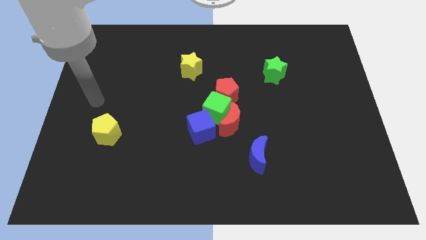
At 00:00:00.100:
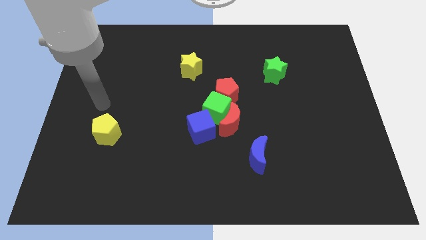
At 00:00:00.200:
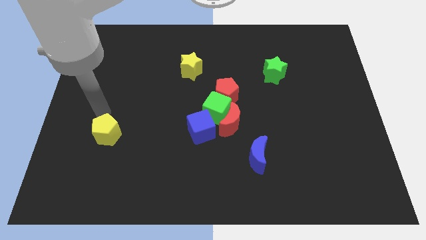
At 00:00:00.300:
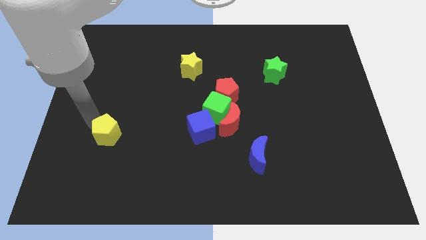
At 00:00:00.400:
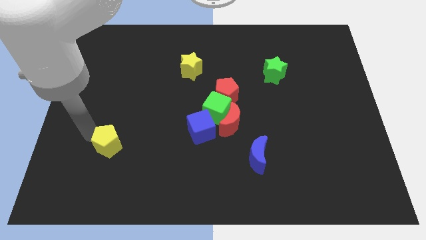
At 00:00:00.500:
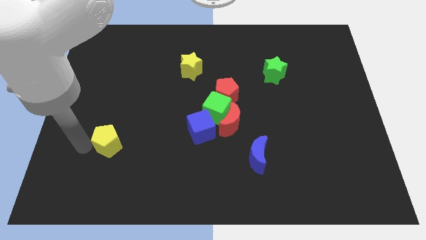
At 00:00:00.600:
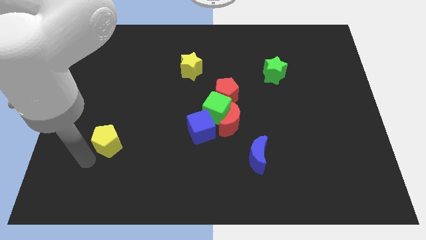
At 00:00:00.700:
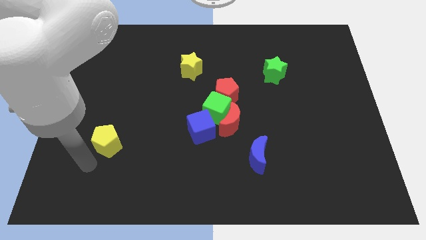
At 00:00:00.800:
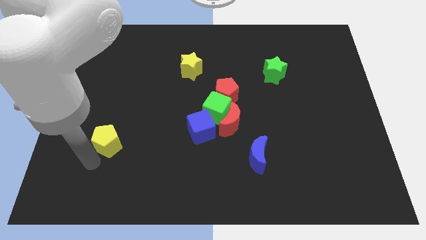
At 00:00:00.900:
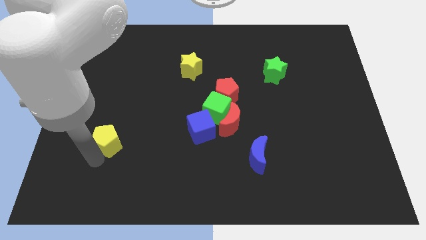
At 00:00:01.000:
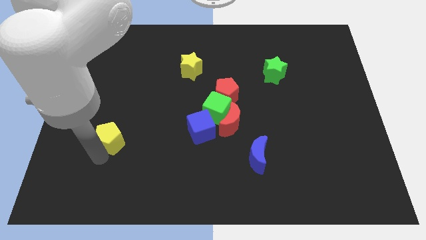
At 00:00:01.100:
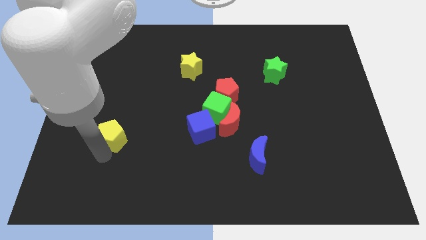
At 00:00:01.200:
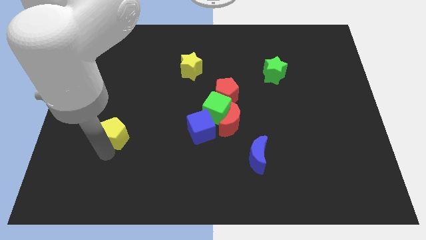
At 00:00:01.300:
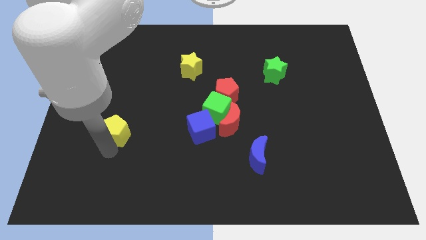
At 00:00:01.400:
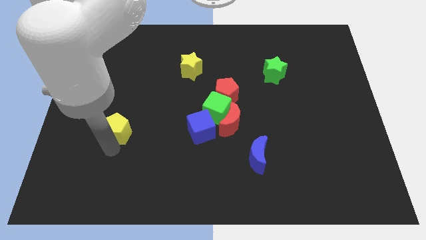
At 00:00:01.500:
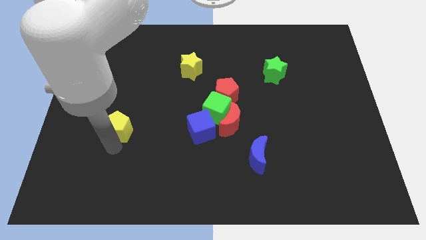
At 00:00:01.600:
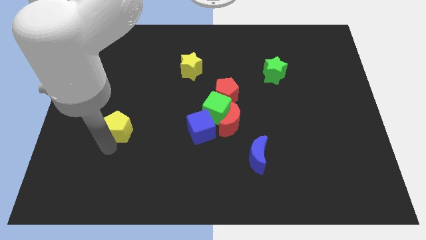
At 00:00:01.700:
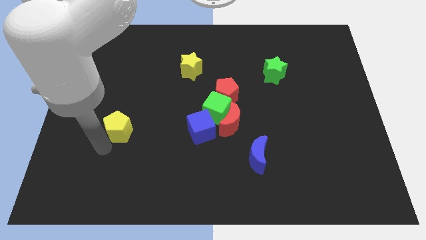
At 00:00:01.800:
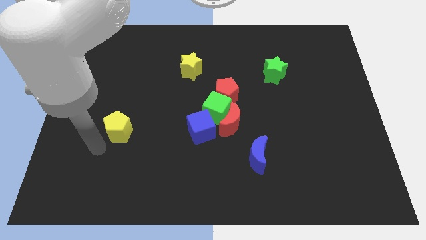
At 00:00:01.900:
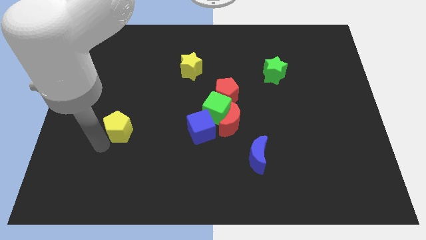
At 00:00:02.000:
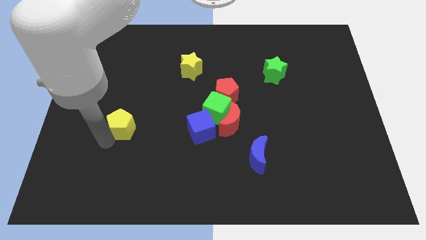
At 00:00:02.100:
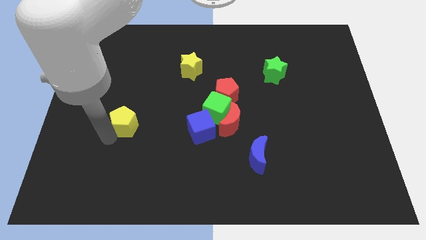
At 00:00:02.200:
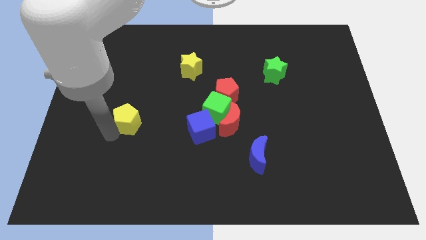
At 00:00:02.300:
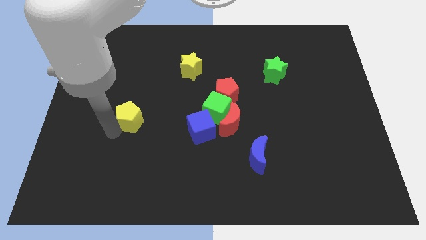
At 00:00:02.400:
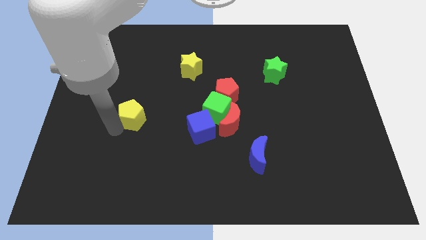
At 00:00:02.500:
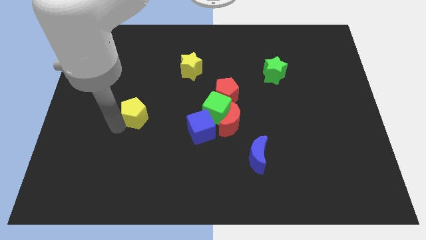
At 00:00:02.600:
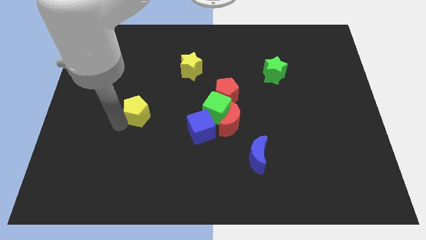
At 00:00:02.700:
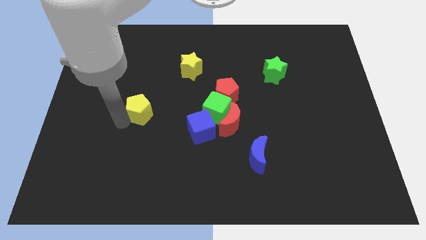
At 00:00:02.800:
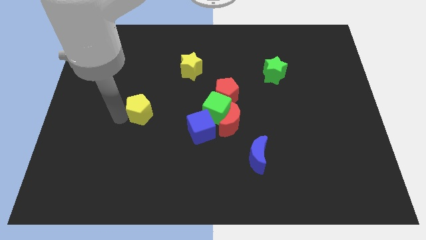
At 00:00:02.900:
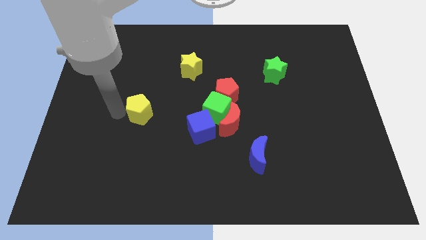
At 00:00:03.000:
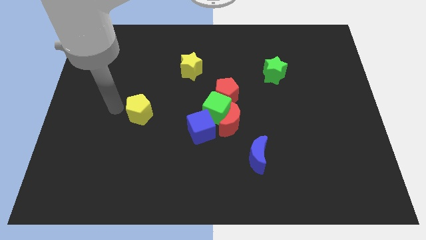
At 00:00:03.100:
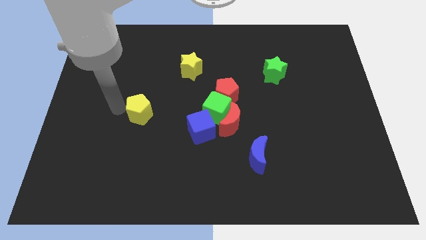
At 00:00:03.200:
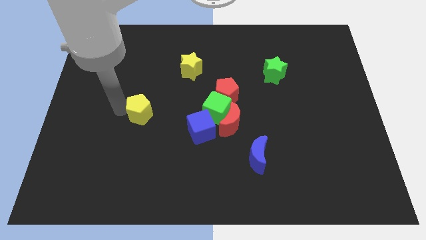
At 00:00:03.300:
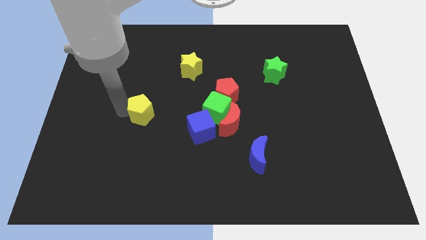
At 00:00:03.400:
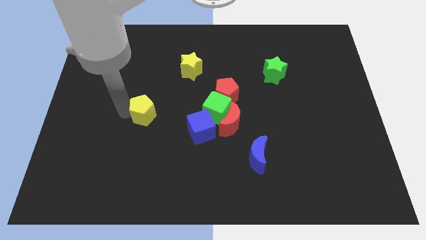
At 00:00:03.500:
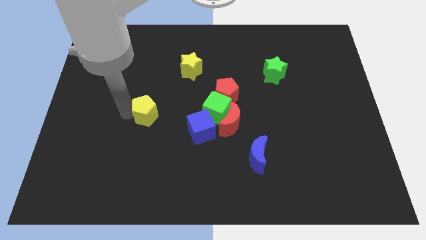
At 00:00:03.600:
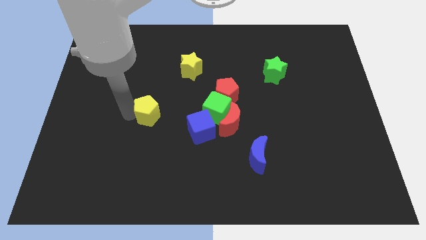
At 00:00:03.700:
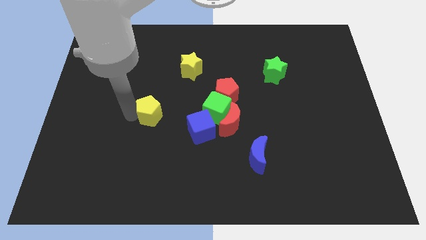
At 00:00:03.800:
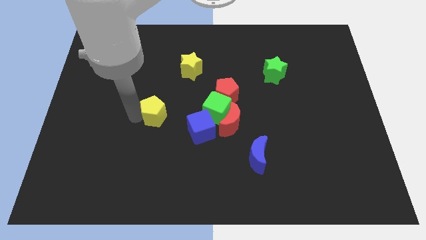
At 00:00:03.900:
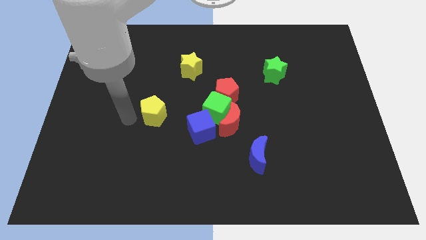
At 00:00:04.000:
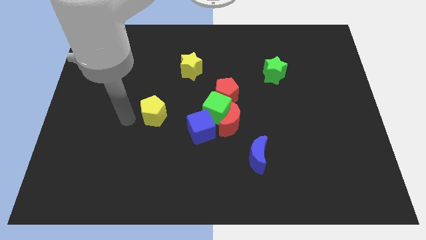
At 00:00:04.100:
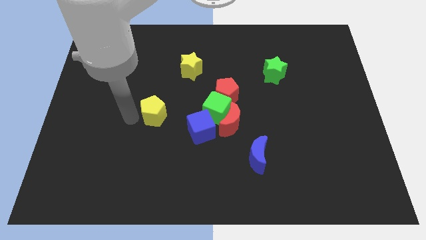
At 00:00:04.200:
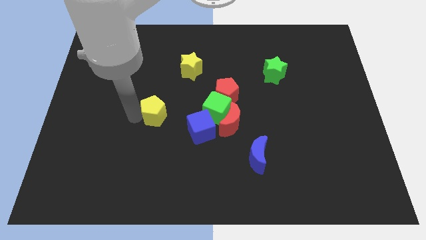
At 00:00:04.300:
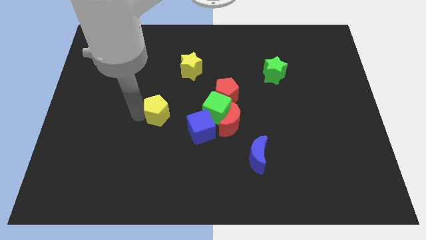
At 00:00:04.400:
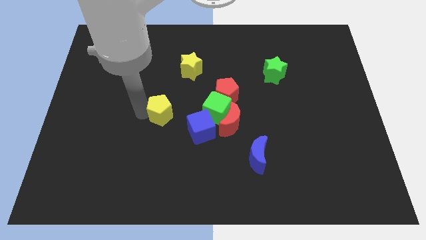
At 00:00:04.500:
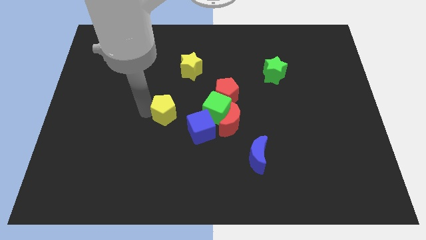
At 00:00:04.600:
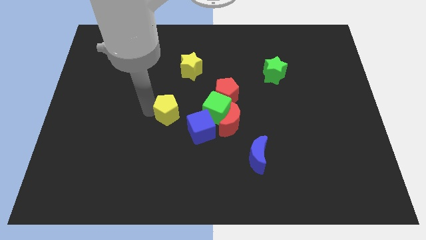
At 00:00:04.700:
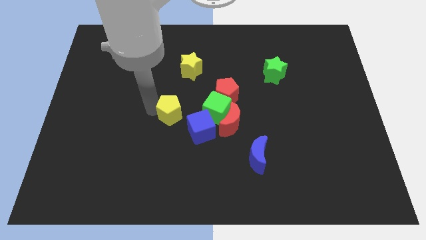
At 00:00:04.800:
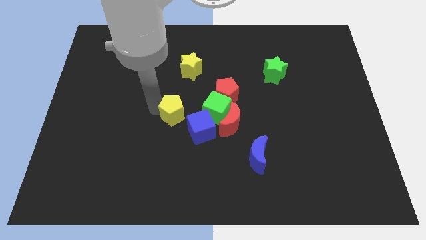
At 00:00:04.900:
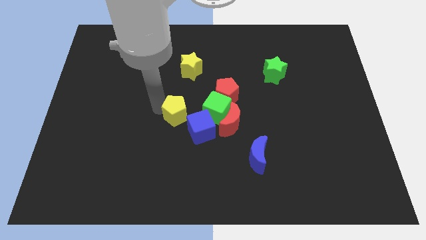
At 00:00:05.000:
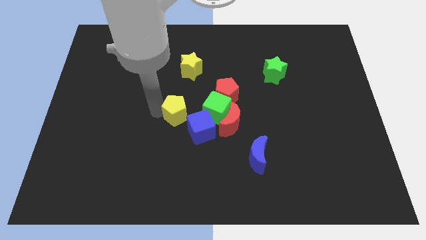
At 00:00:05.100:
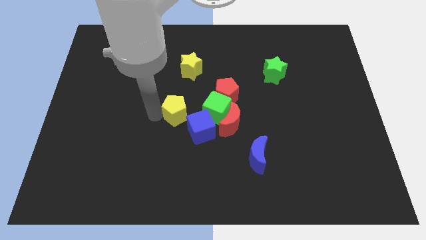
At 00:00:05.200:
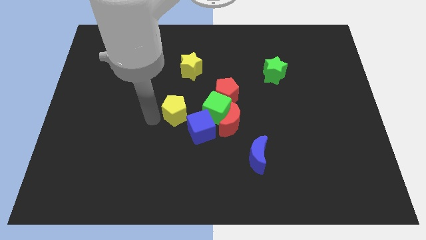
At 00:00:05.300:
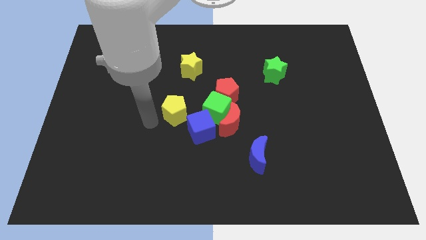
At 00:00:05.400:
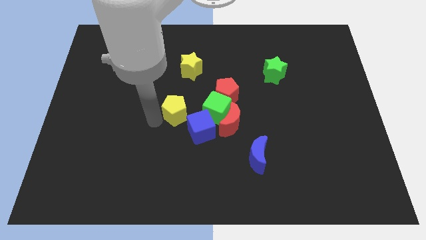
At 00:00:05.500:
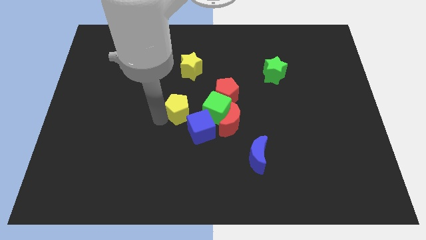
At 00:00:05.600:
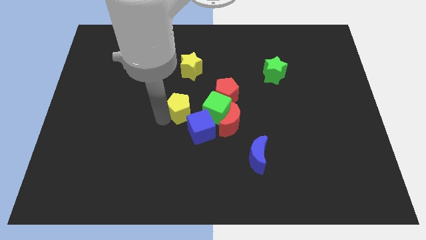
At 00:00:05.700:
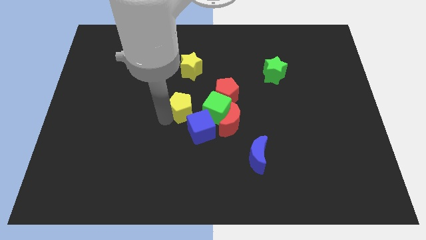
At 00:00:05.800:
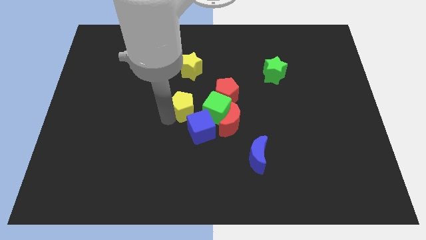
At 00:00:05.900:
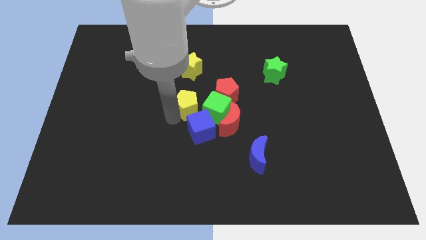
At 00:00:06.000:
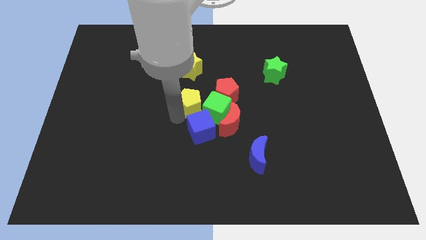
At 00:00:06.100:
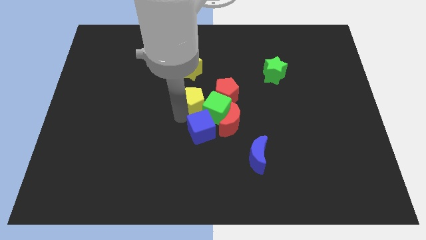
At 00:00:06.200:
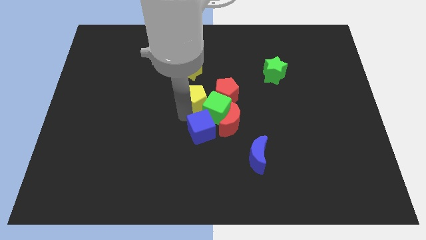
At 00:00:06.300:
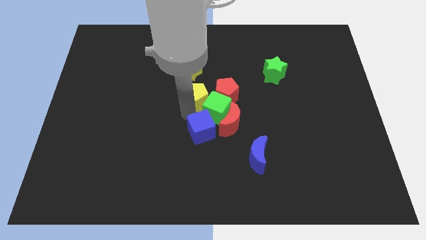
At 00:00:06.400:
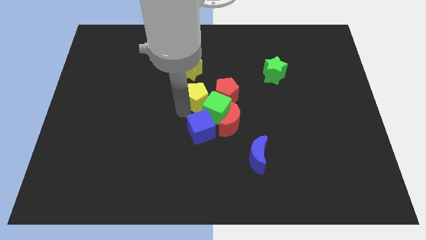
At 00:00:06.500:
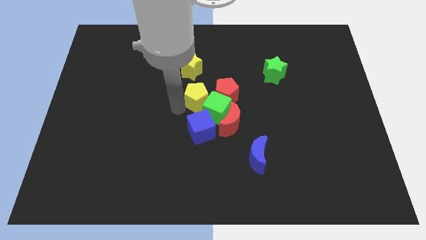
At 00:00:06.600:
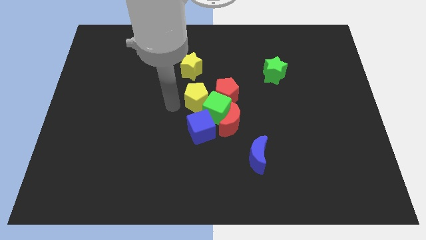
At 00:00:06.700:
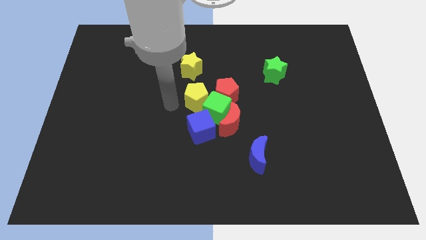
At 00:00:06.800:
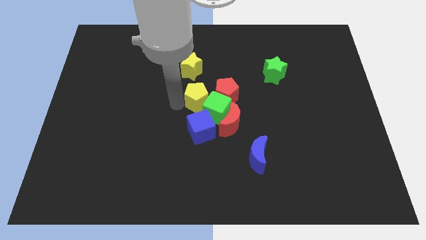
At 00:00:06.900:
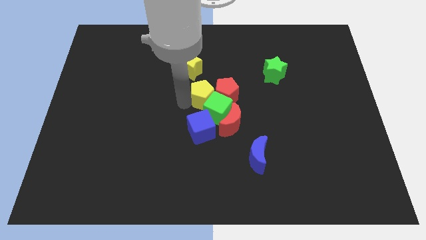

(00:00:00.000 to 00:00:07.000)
push the yellow pentagon next to the red pentagon
